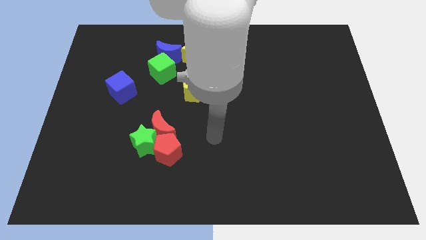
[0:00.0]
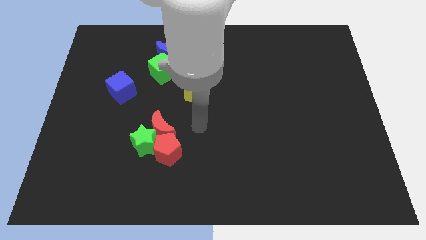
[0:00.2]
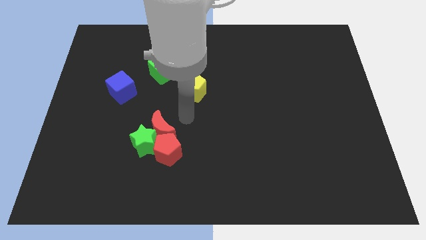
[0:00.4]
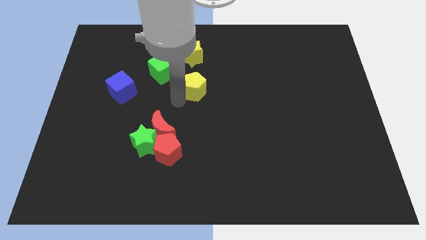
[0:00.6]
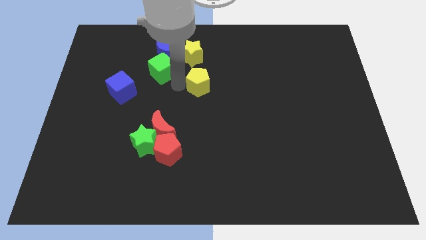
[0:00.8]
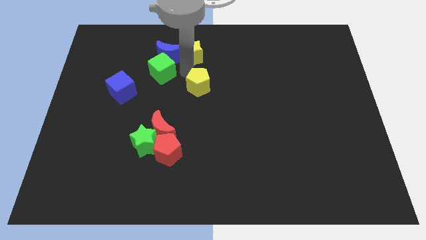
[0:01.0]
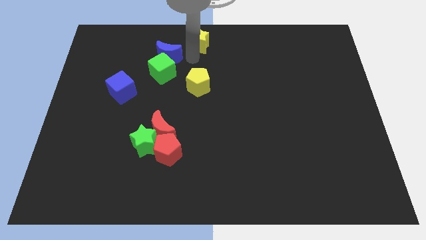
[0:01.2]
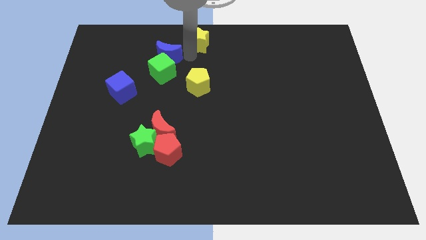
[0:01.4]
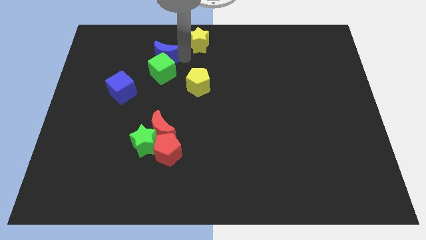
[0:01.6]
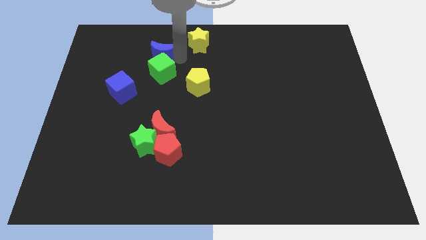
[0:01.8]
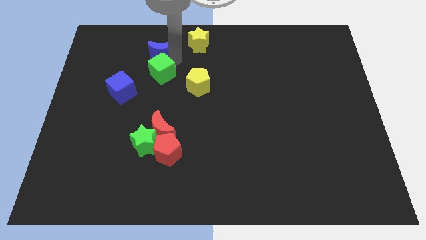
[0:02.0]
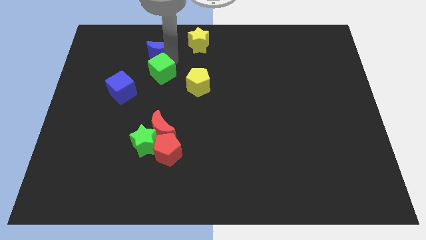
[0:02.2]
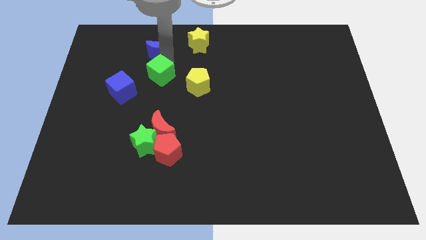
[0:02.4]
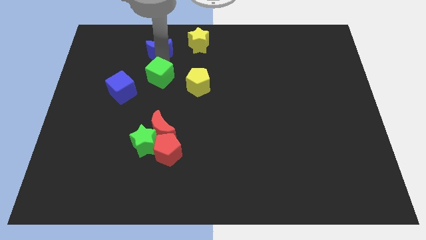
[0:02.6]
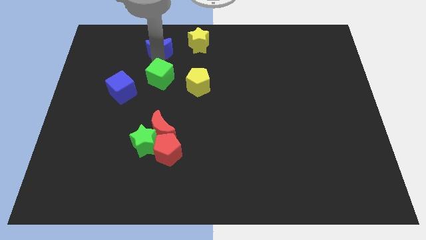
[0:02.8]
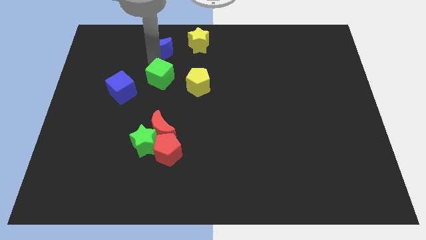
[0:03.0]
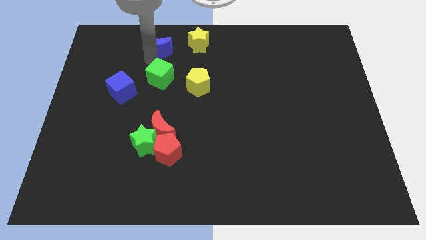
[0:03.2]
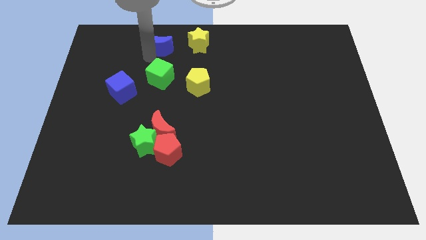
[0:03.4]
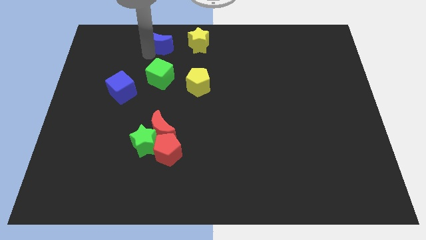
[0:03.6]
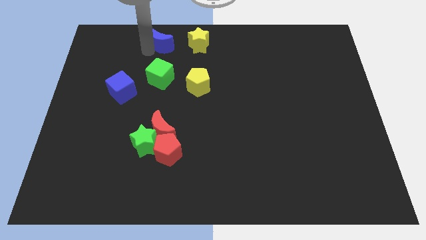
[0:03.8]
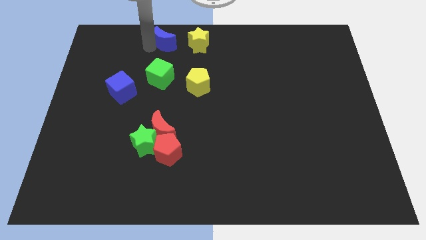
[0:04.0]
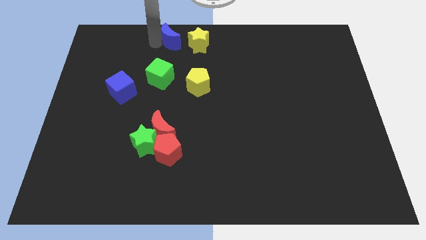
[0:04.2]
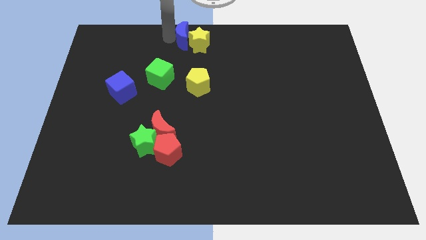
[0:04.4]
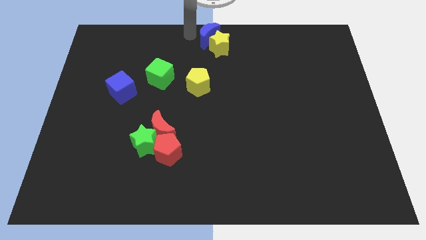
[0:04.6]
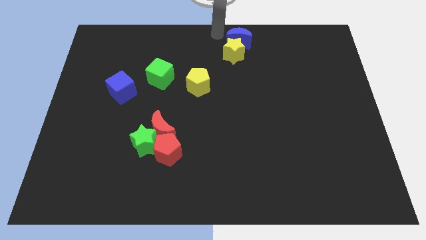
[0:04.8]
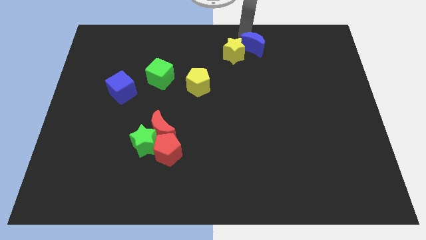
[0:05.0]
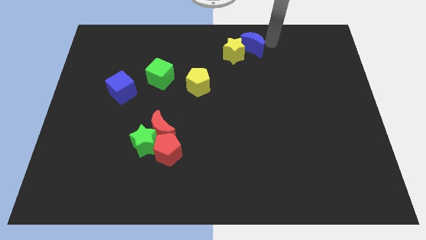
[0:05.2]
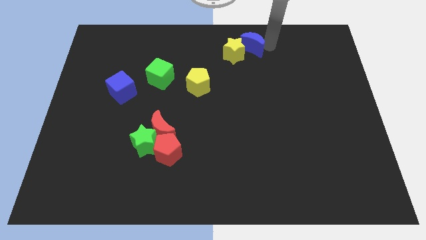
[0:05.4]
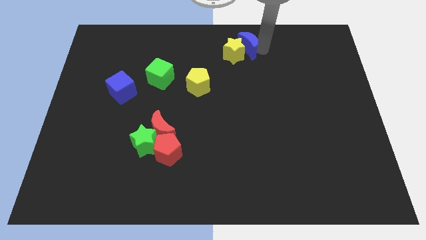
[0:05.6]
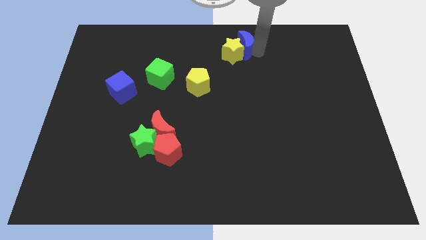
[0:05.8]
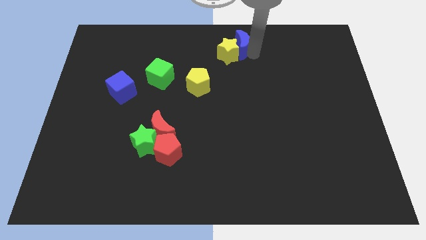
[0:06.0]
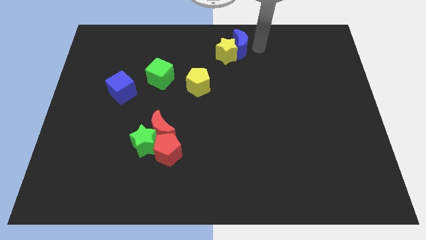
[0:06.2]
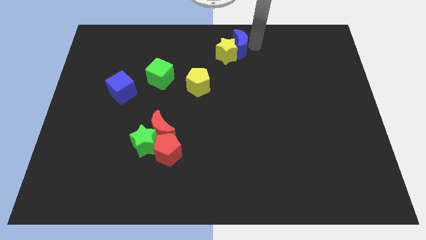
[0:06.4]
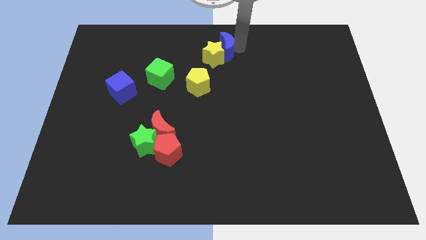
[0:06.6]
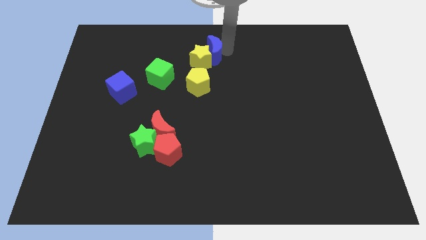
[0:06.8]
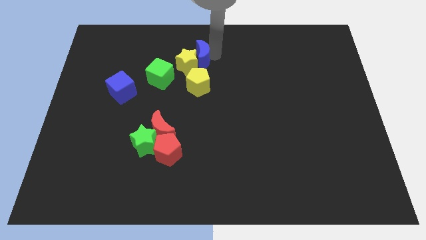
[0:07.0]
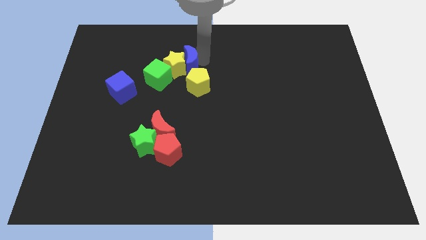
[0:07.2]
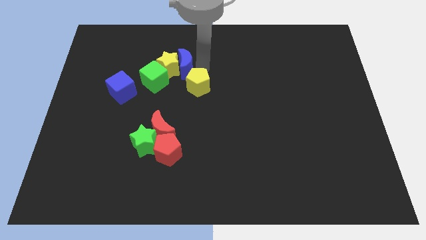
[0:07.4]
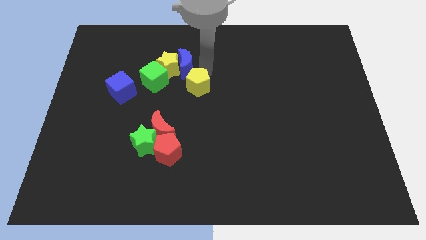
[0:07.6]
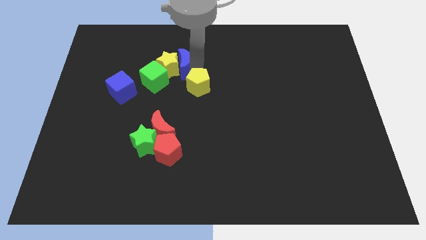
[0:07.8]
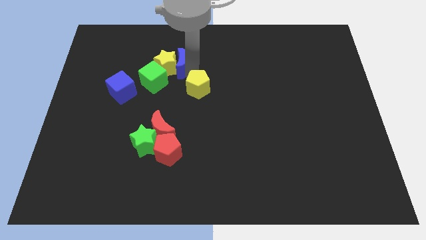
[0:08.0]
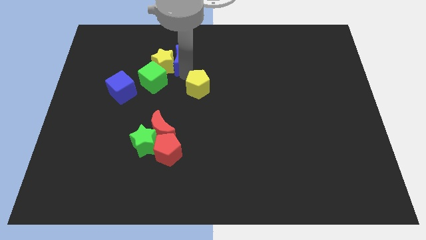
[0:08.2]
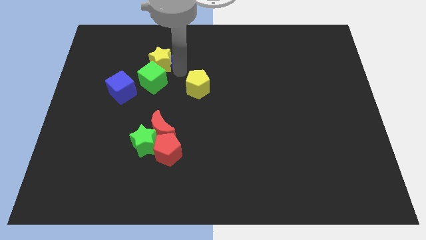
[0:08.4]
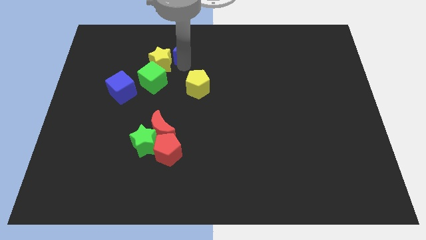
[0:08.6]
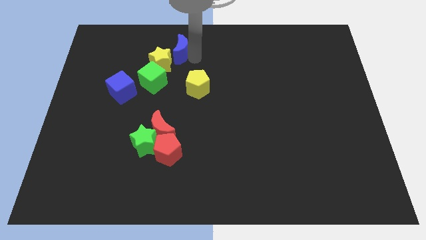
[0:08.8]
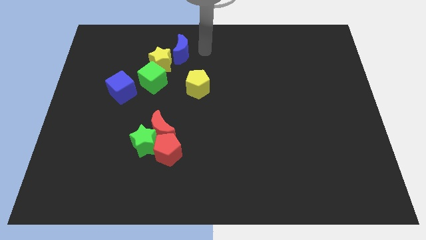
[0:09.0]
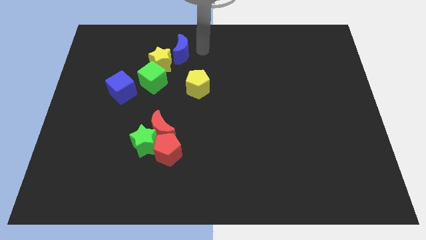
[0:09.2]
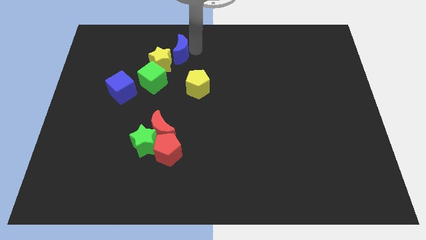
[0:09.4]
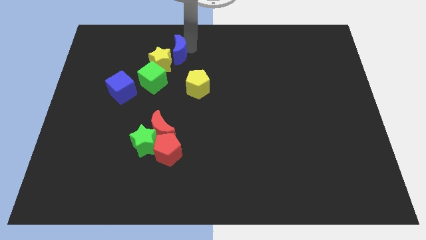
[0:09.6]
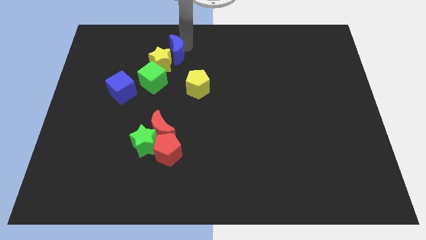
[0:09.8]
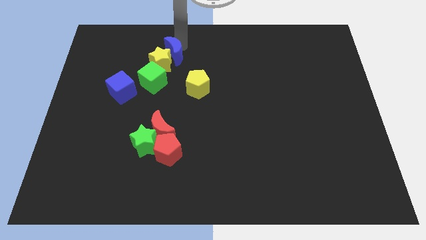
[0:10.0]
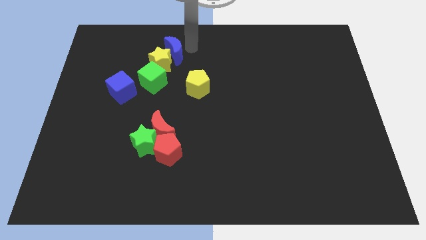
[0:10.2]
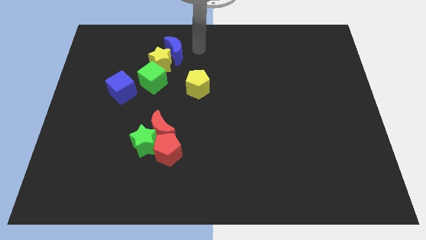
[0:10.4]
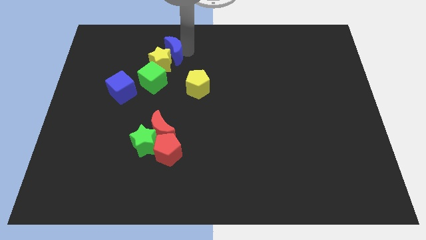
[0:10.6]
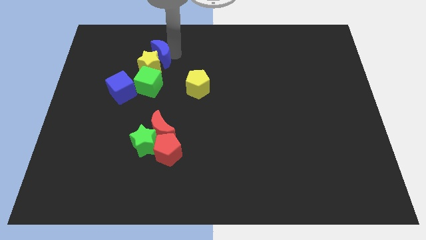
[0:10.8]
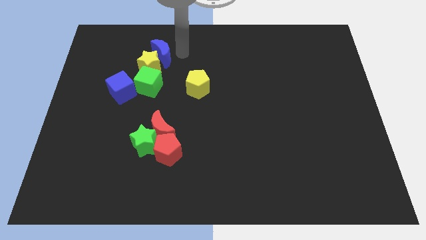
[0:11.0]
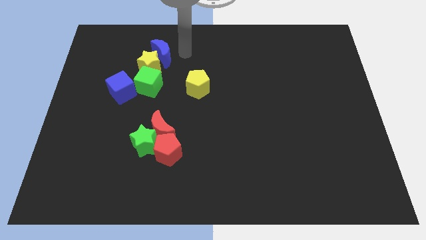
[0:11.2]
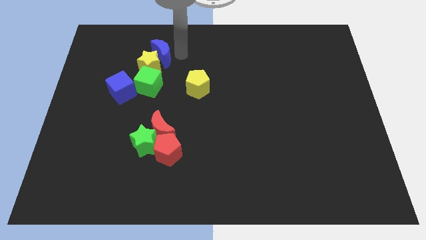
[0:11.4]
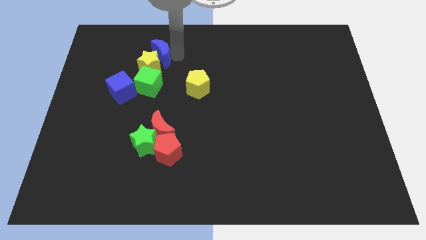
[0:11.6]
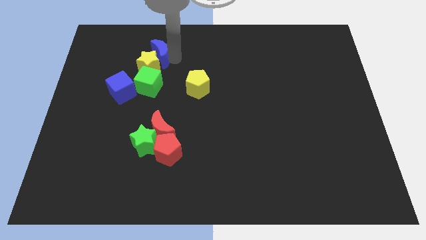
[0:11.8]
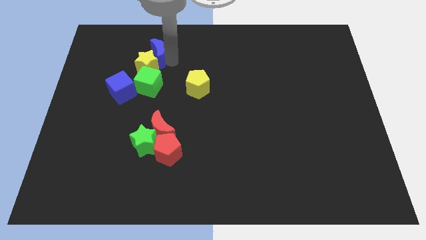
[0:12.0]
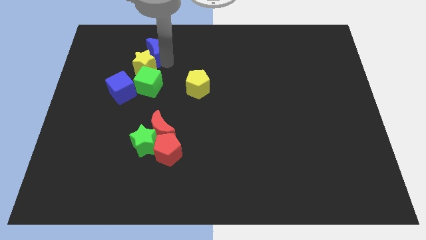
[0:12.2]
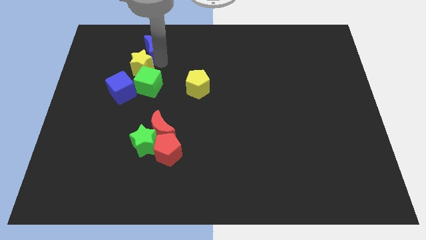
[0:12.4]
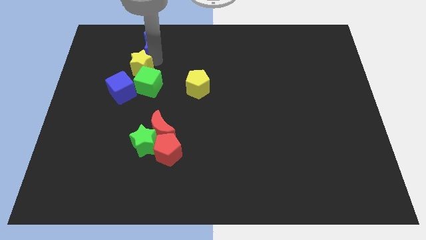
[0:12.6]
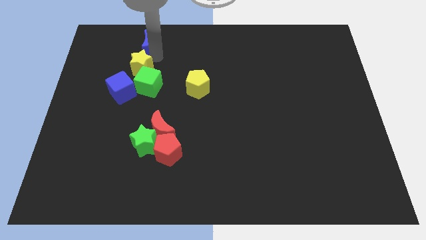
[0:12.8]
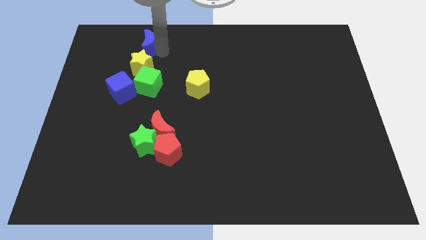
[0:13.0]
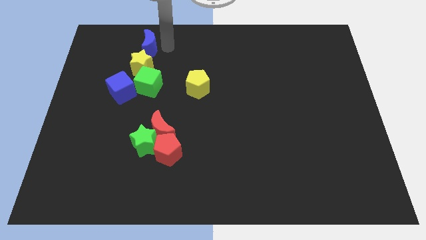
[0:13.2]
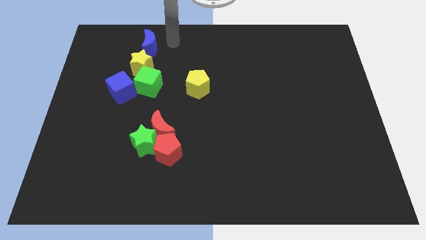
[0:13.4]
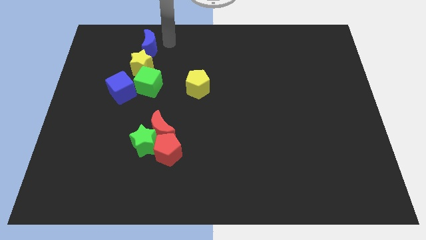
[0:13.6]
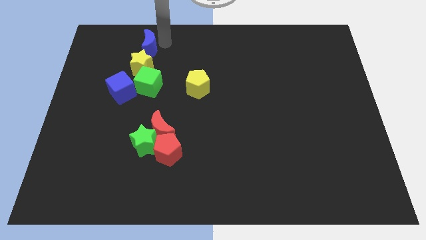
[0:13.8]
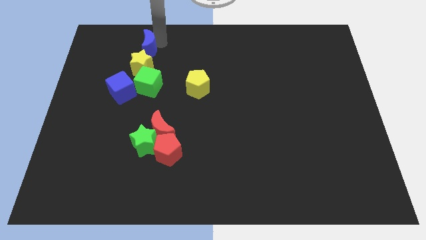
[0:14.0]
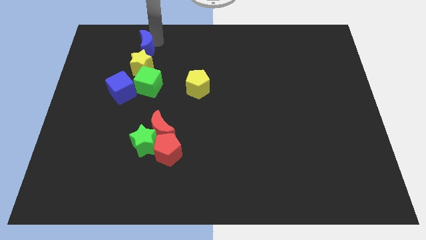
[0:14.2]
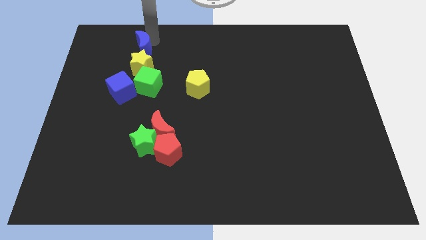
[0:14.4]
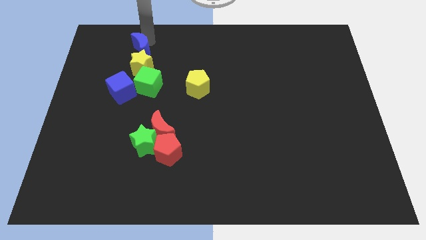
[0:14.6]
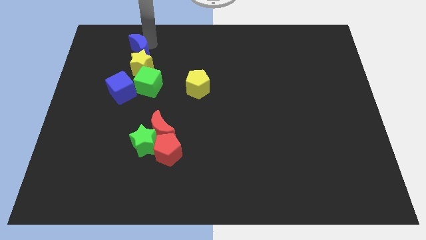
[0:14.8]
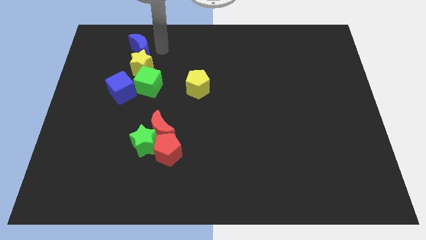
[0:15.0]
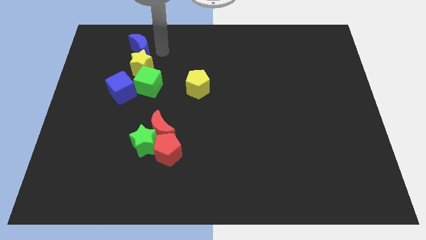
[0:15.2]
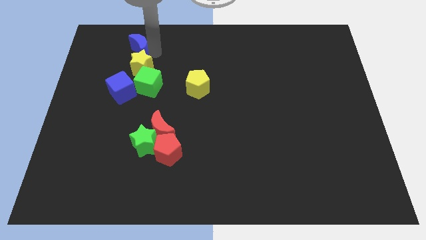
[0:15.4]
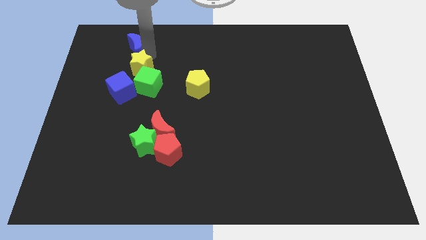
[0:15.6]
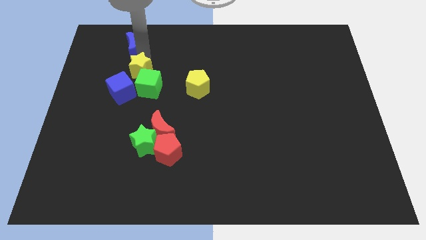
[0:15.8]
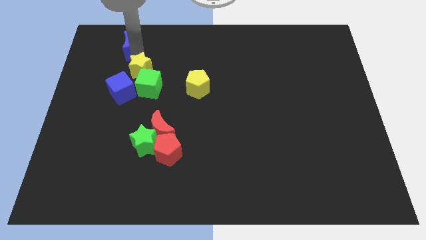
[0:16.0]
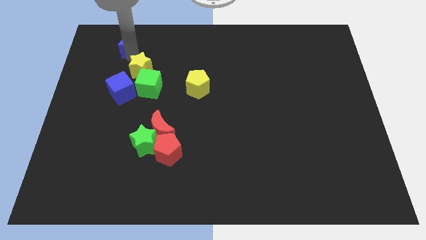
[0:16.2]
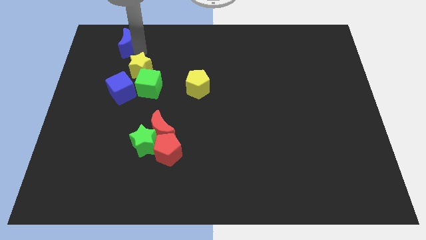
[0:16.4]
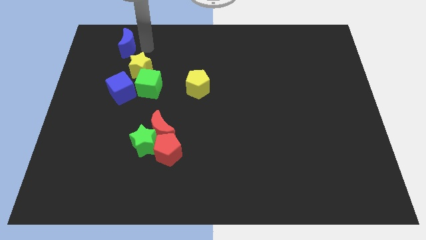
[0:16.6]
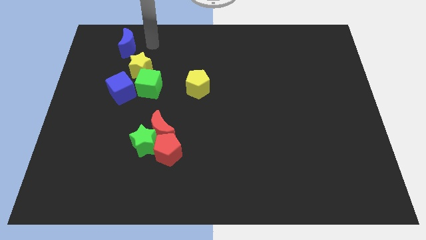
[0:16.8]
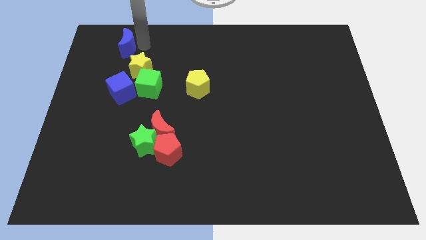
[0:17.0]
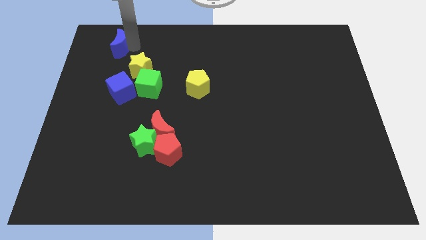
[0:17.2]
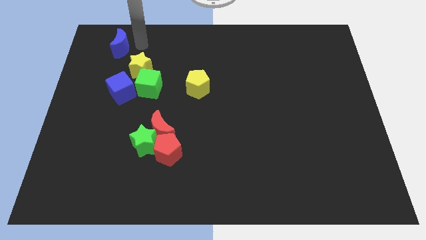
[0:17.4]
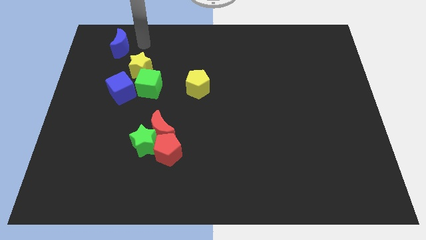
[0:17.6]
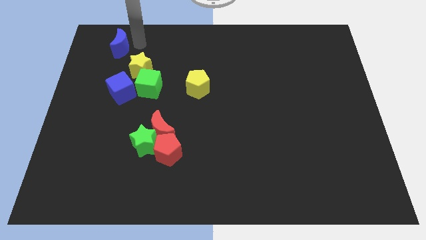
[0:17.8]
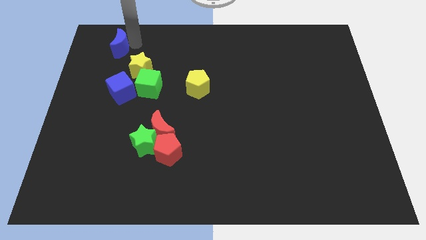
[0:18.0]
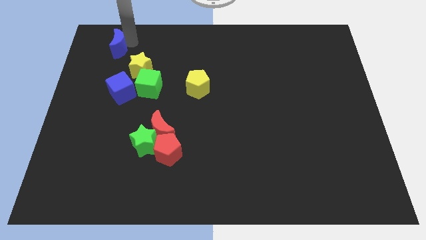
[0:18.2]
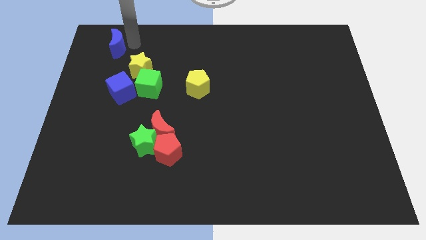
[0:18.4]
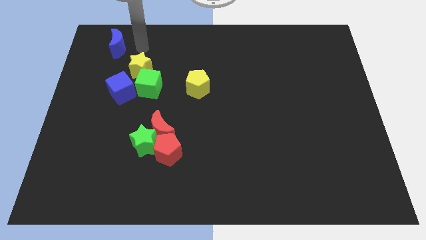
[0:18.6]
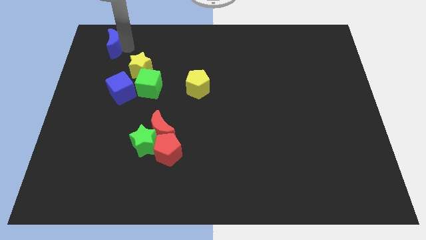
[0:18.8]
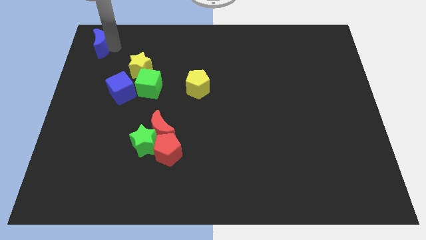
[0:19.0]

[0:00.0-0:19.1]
push the blue moon to the top left corner
